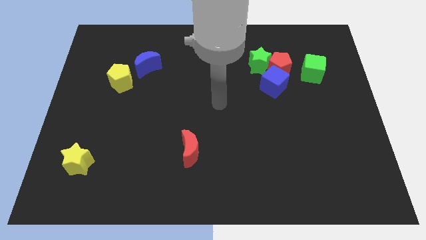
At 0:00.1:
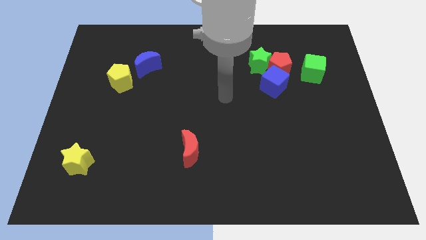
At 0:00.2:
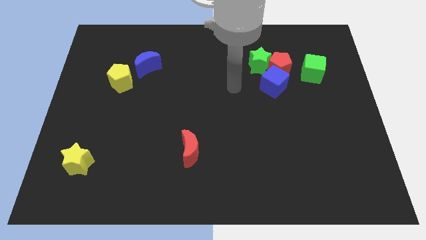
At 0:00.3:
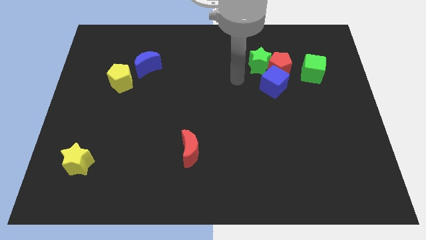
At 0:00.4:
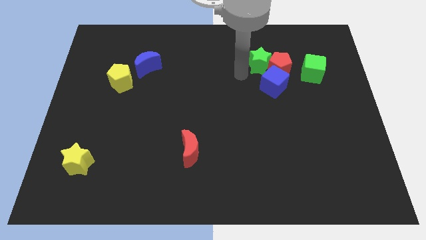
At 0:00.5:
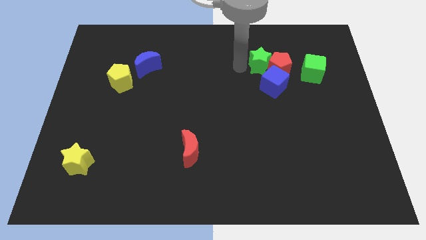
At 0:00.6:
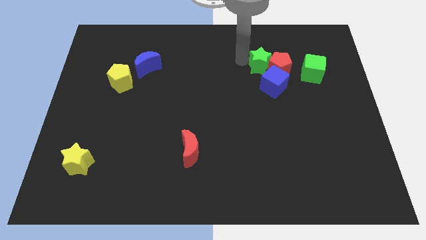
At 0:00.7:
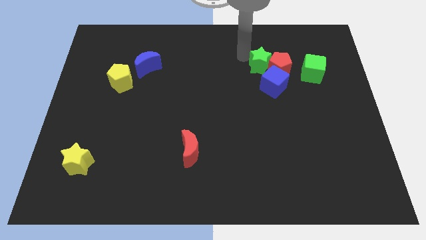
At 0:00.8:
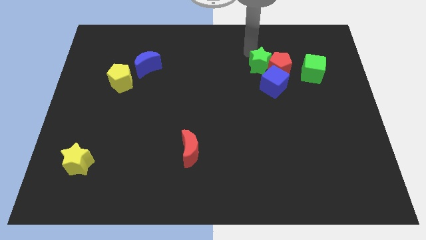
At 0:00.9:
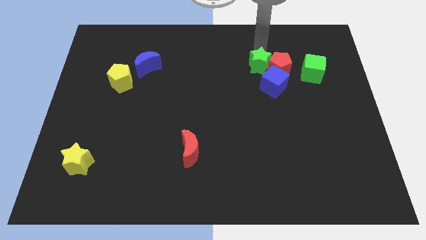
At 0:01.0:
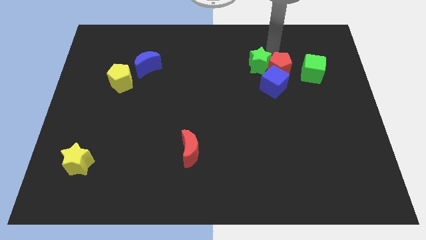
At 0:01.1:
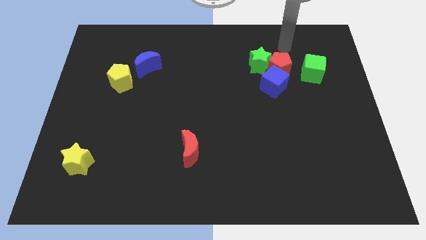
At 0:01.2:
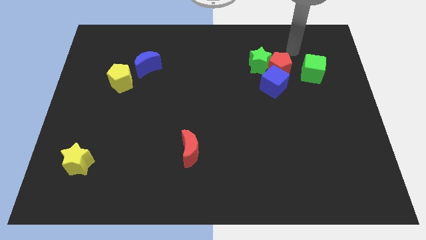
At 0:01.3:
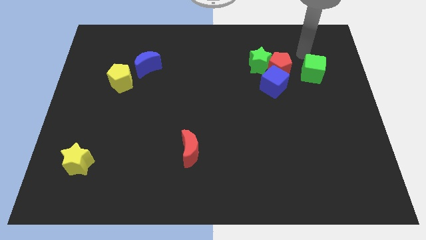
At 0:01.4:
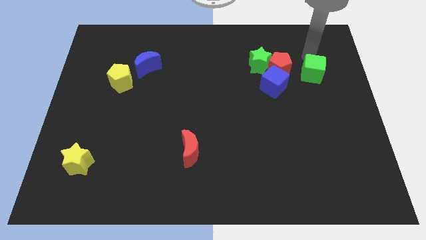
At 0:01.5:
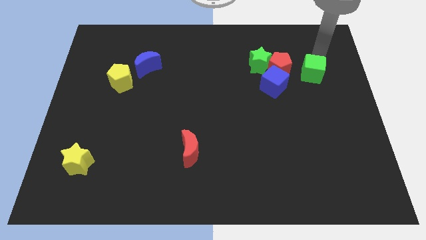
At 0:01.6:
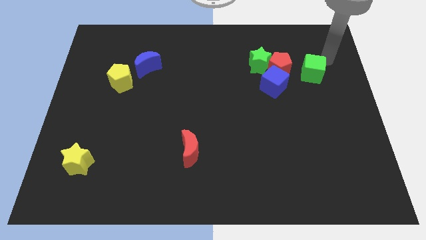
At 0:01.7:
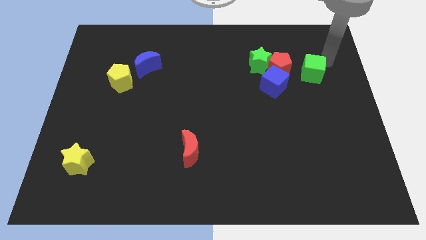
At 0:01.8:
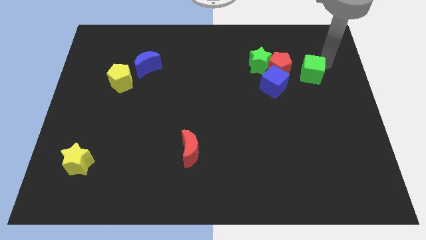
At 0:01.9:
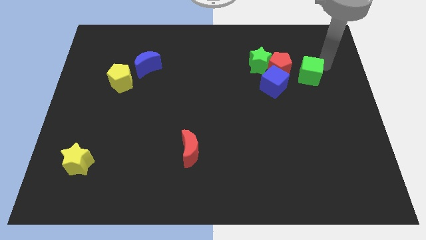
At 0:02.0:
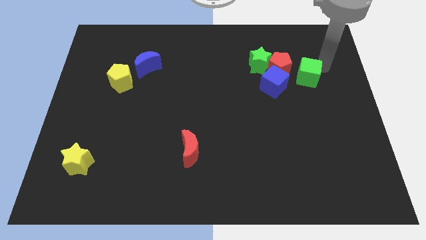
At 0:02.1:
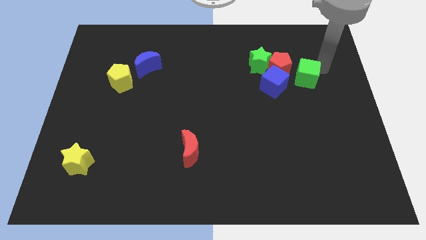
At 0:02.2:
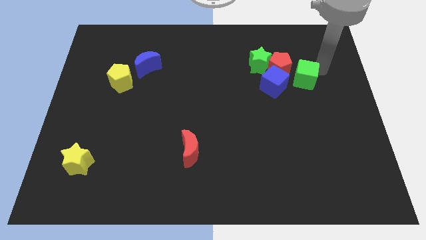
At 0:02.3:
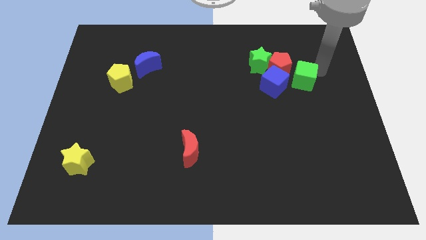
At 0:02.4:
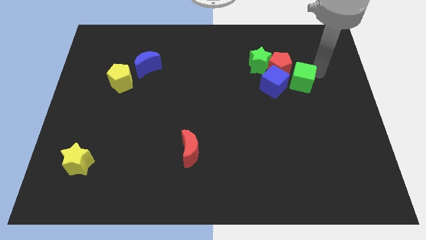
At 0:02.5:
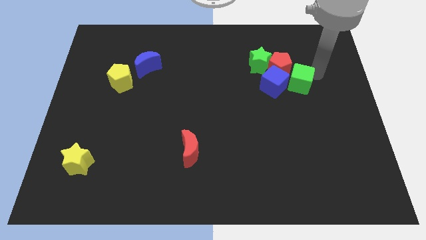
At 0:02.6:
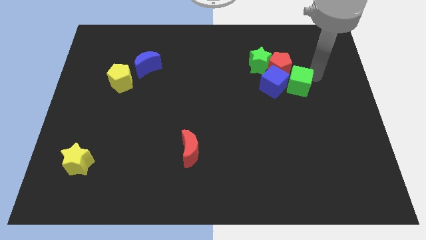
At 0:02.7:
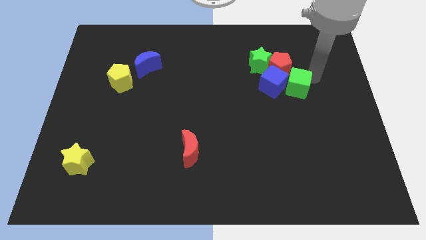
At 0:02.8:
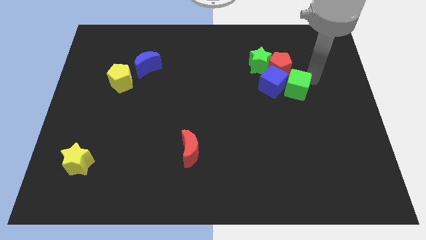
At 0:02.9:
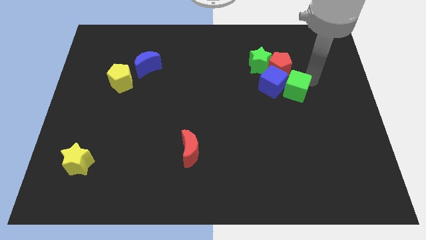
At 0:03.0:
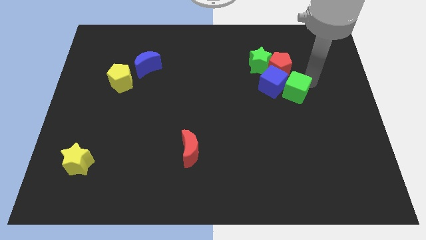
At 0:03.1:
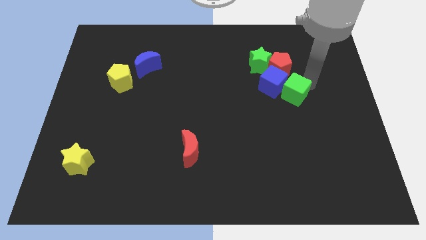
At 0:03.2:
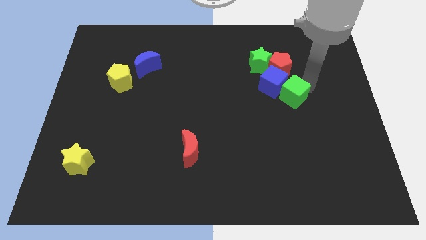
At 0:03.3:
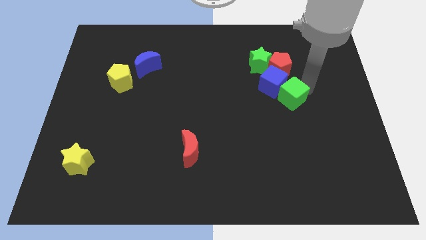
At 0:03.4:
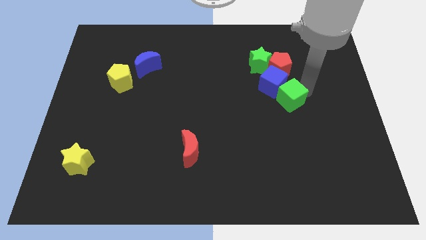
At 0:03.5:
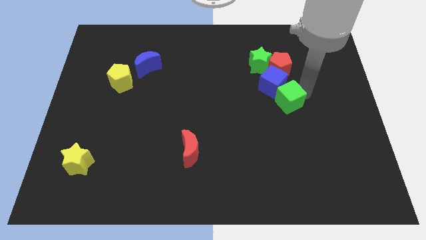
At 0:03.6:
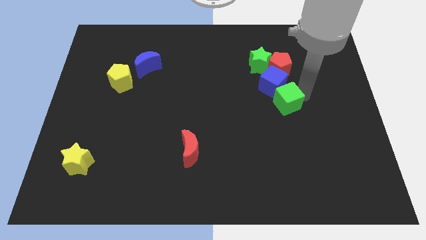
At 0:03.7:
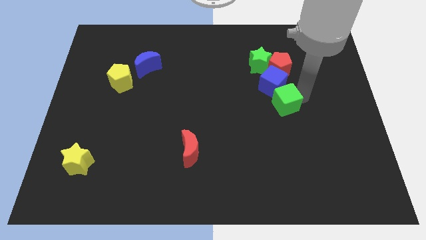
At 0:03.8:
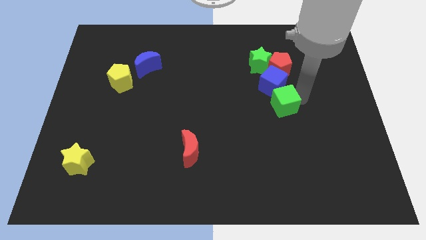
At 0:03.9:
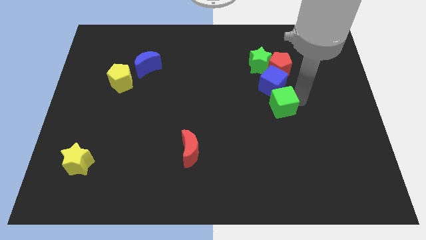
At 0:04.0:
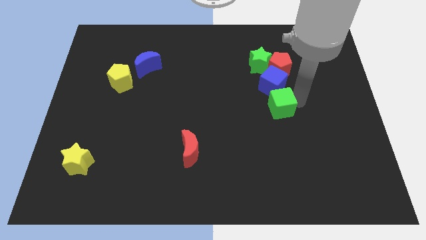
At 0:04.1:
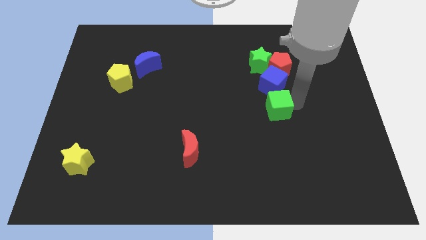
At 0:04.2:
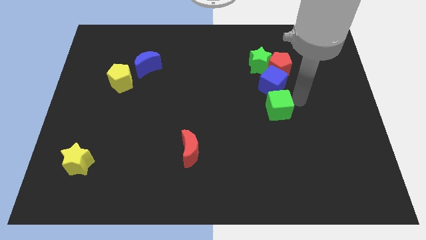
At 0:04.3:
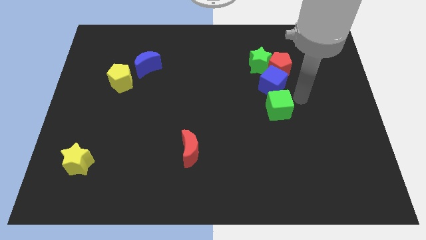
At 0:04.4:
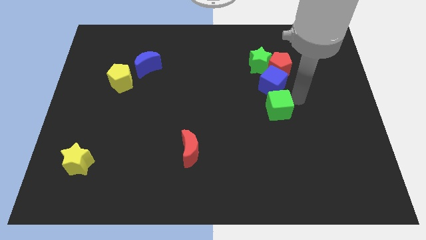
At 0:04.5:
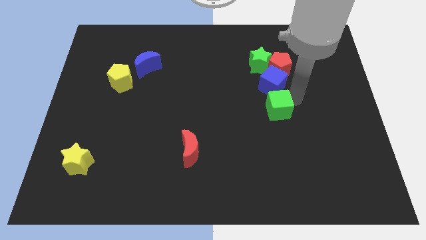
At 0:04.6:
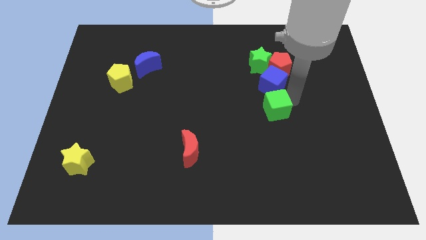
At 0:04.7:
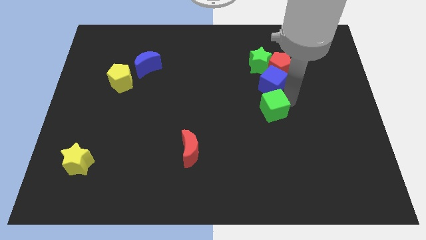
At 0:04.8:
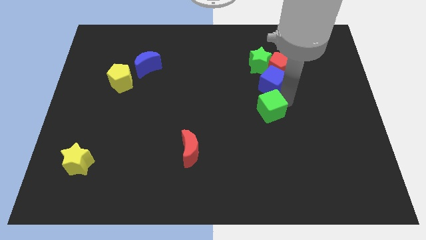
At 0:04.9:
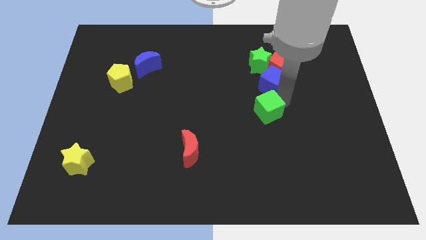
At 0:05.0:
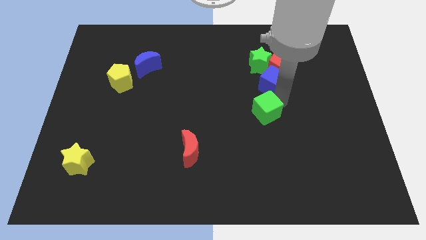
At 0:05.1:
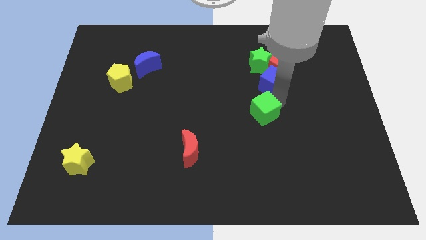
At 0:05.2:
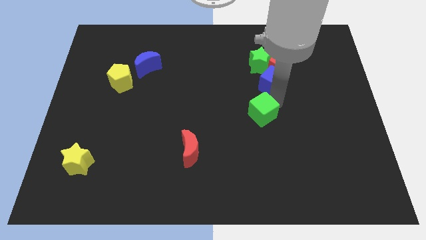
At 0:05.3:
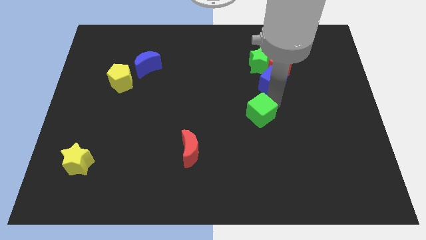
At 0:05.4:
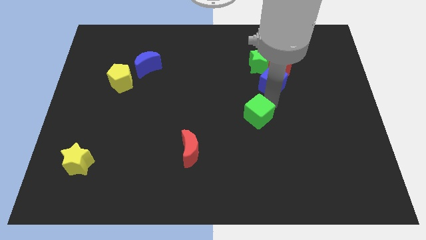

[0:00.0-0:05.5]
push the green cube down and left

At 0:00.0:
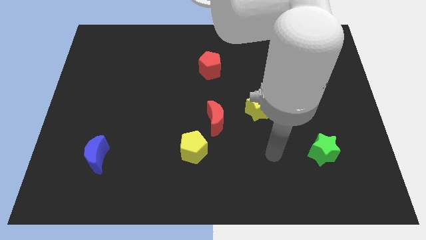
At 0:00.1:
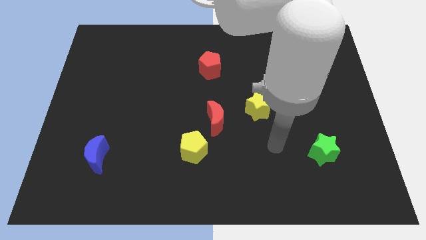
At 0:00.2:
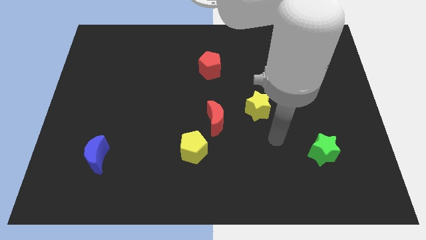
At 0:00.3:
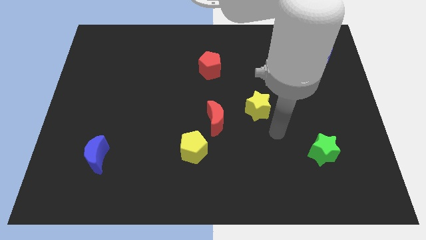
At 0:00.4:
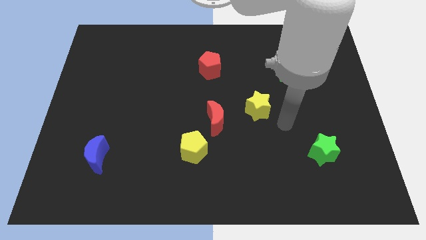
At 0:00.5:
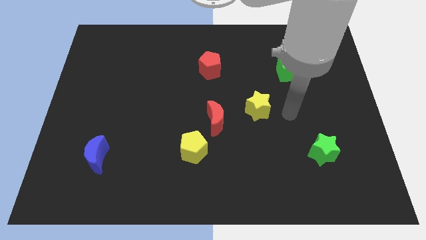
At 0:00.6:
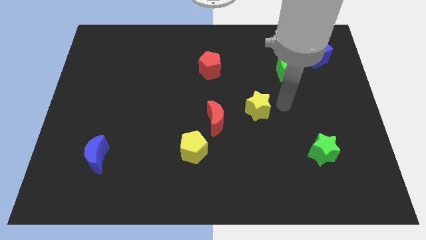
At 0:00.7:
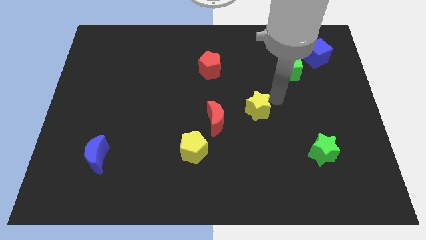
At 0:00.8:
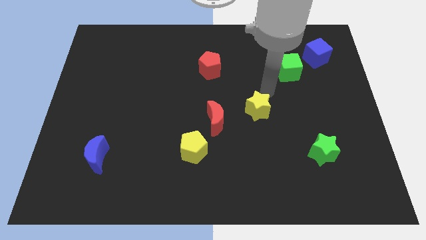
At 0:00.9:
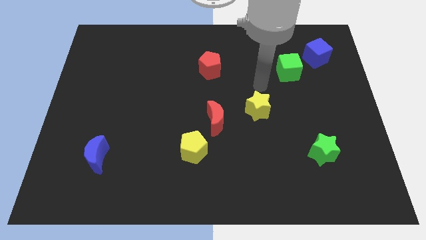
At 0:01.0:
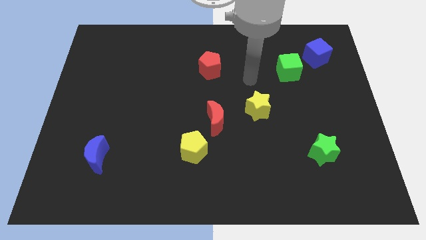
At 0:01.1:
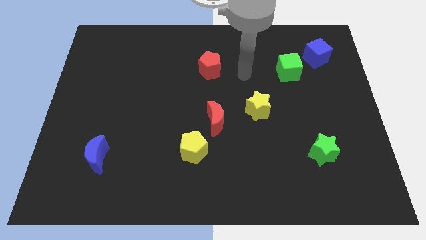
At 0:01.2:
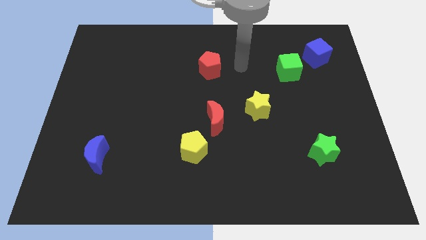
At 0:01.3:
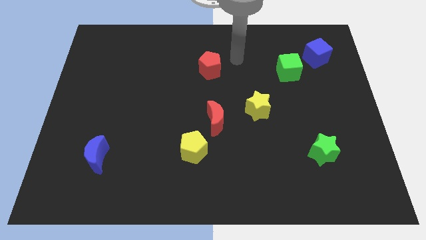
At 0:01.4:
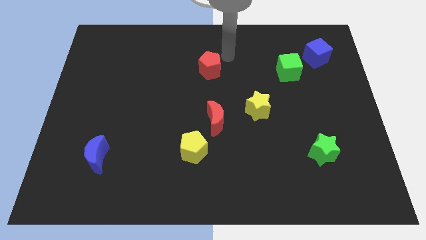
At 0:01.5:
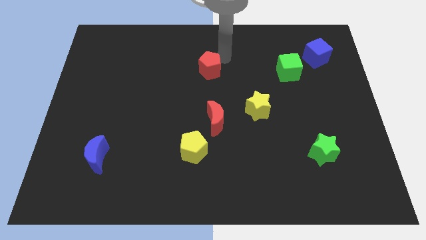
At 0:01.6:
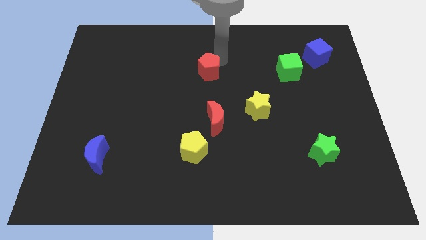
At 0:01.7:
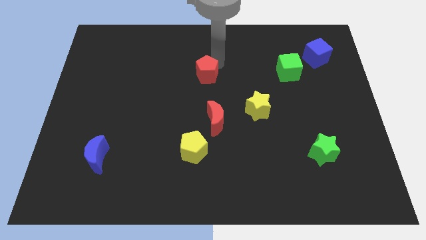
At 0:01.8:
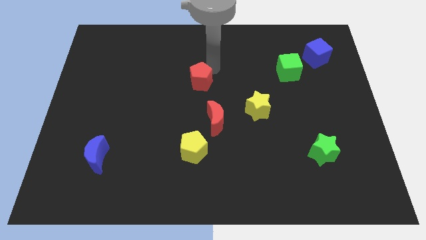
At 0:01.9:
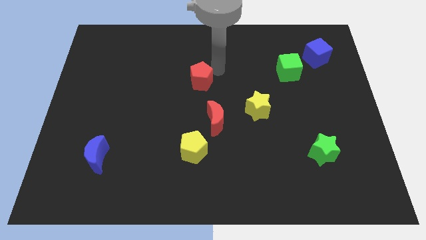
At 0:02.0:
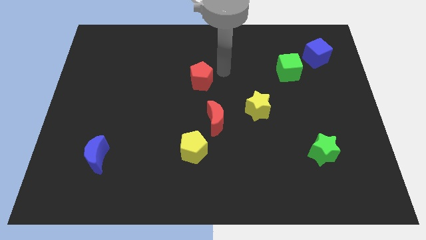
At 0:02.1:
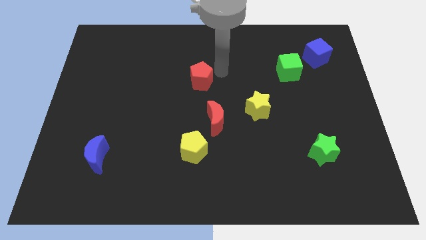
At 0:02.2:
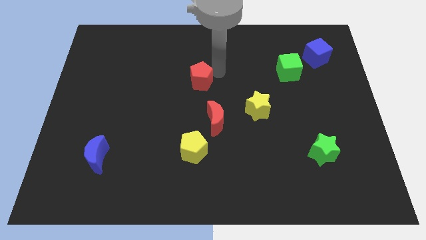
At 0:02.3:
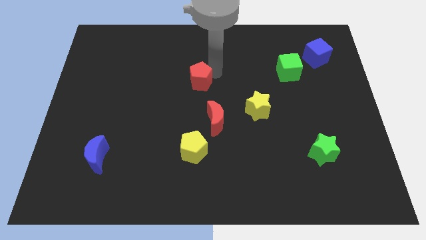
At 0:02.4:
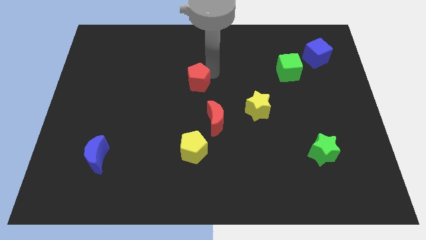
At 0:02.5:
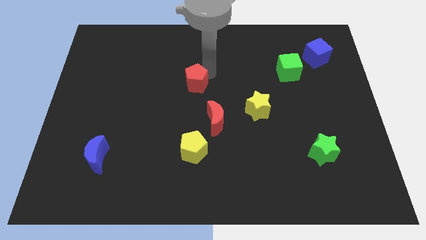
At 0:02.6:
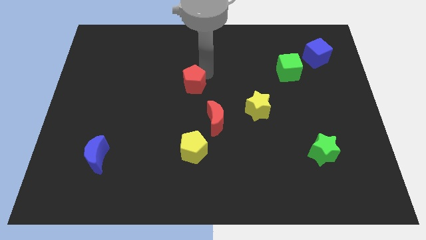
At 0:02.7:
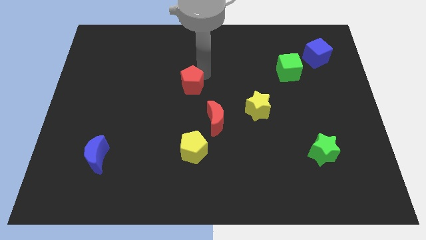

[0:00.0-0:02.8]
slightly move the red pentagon downwards and then left
